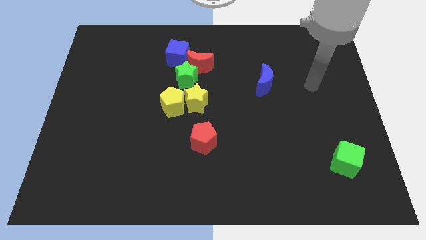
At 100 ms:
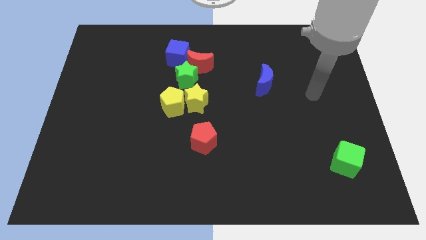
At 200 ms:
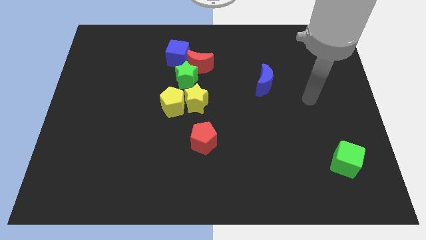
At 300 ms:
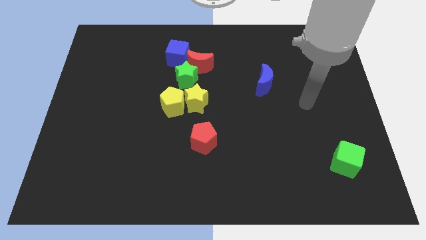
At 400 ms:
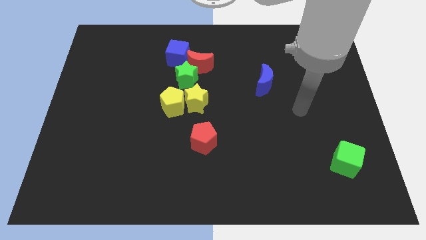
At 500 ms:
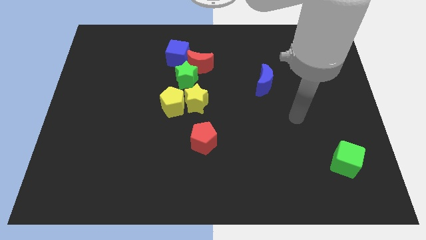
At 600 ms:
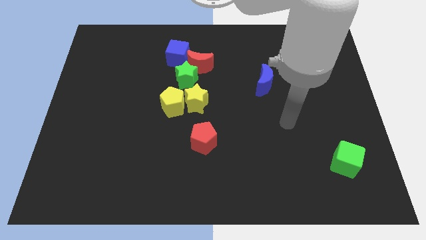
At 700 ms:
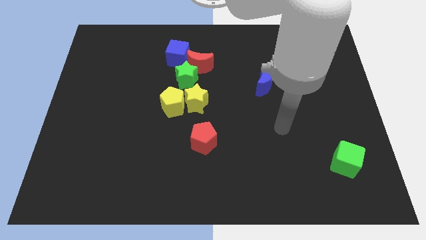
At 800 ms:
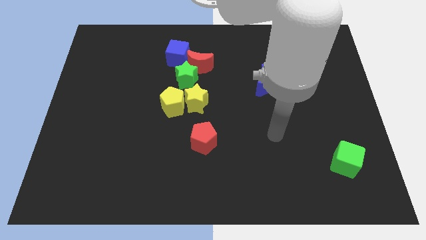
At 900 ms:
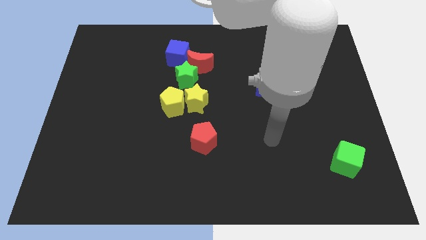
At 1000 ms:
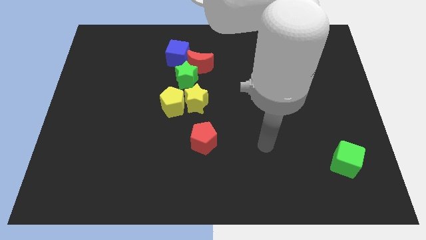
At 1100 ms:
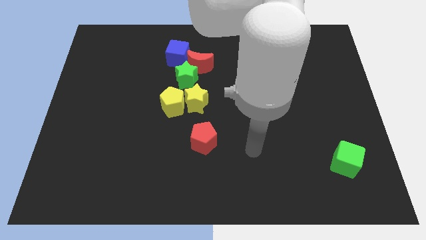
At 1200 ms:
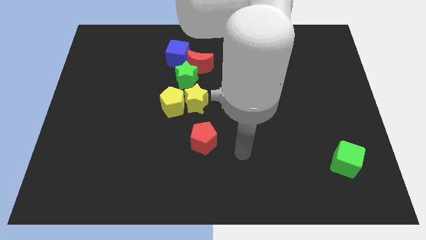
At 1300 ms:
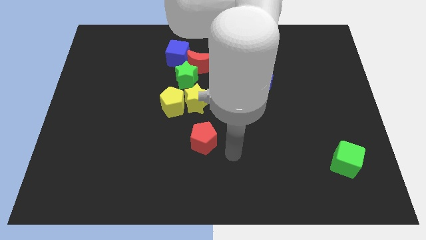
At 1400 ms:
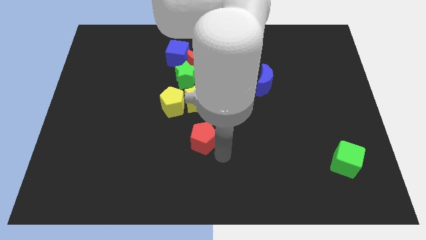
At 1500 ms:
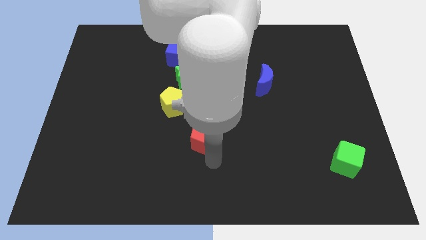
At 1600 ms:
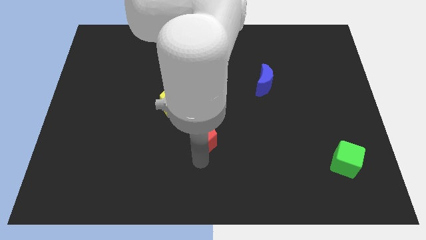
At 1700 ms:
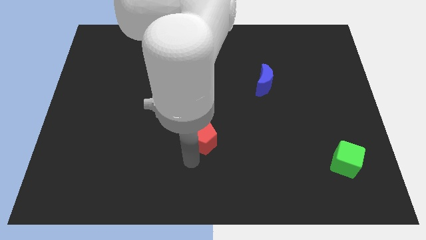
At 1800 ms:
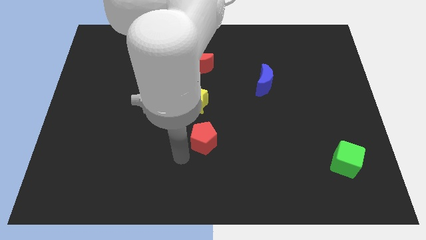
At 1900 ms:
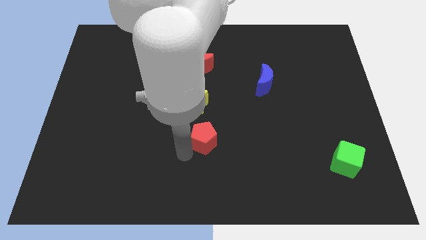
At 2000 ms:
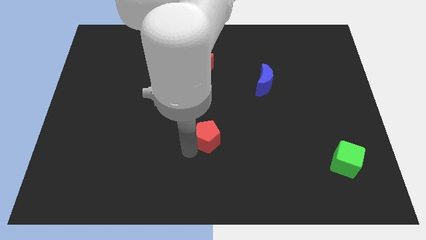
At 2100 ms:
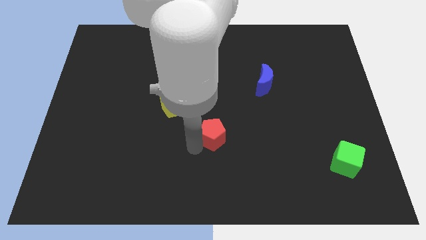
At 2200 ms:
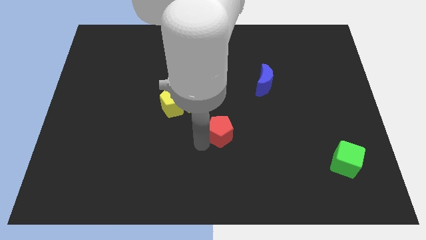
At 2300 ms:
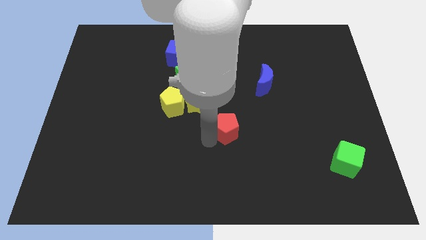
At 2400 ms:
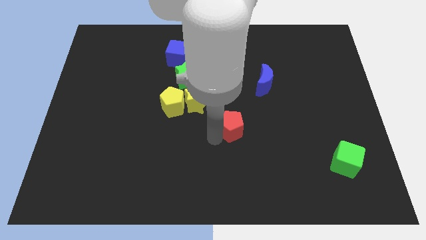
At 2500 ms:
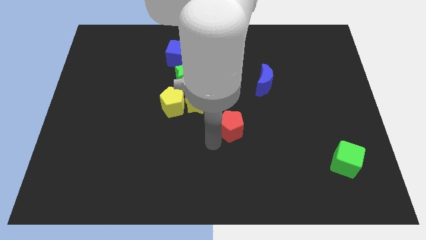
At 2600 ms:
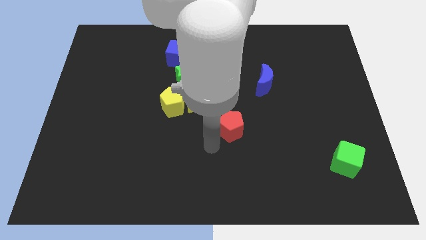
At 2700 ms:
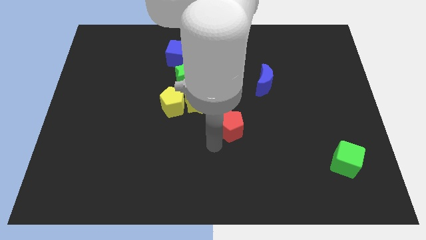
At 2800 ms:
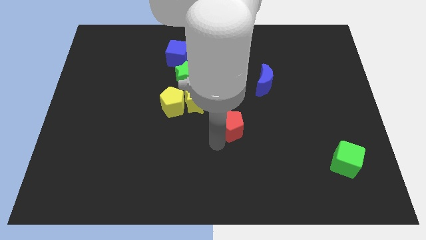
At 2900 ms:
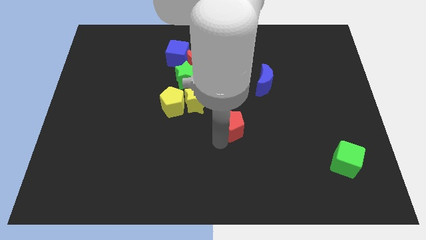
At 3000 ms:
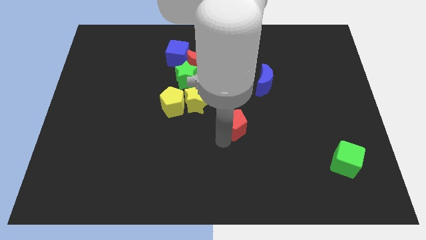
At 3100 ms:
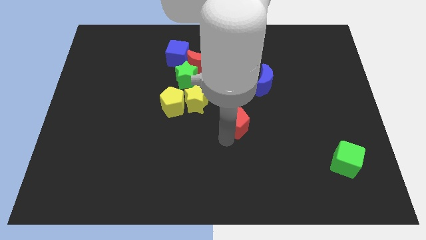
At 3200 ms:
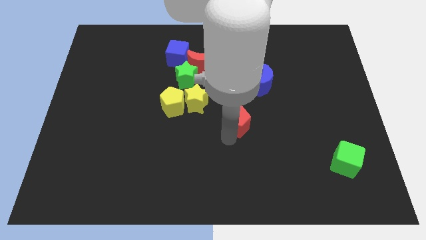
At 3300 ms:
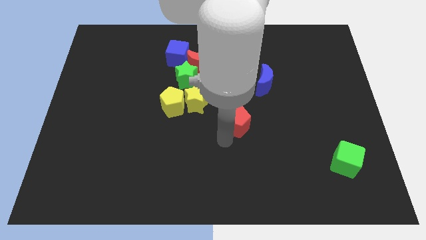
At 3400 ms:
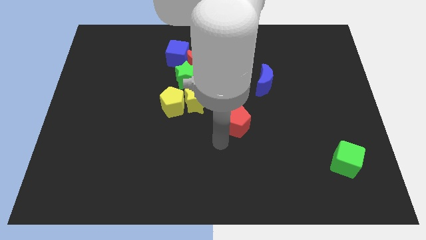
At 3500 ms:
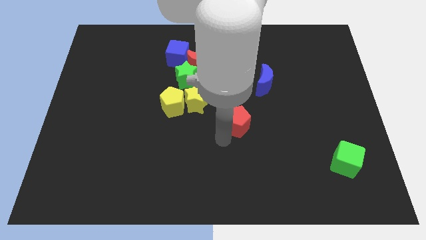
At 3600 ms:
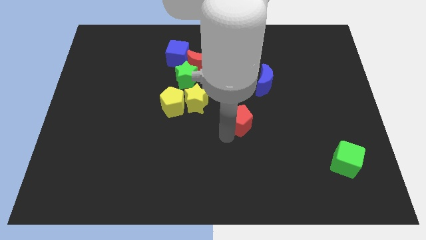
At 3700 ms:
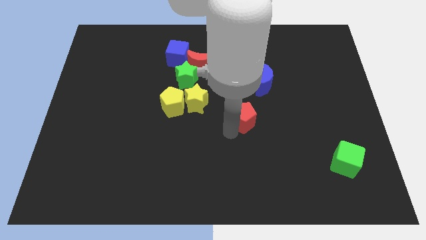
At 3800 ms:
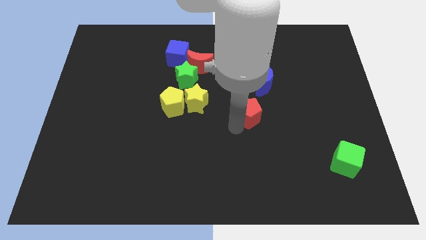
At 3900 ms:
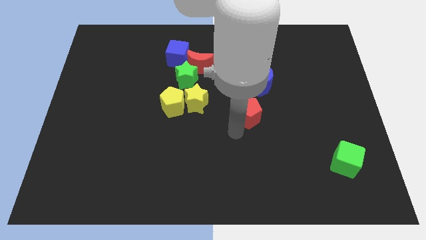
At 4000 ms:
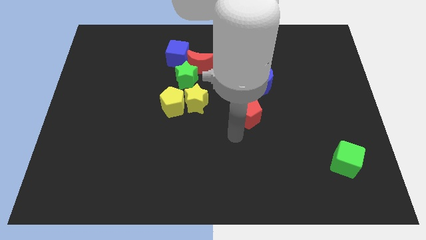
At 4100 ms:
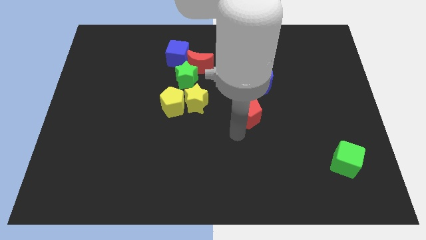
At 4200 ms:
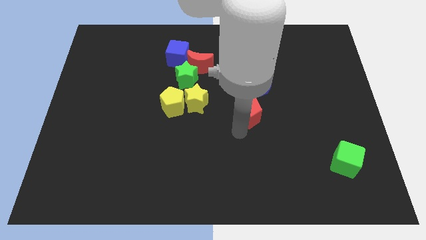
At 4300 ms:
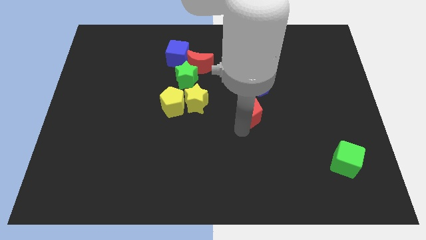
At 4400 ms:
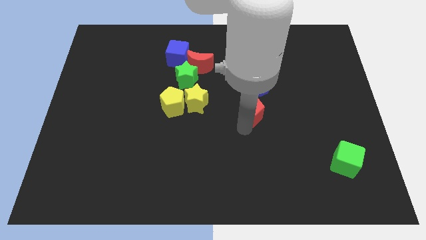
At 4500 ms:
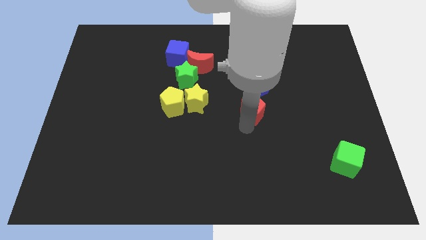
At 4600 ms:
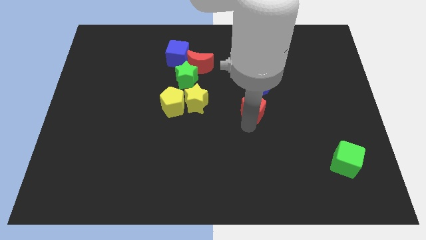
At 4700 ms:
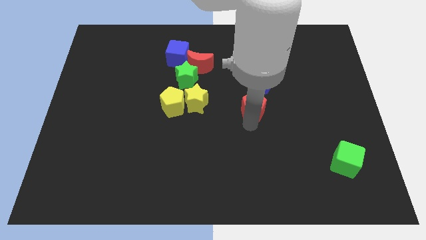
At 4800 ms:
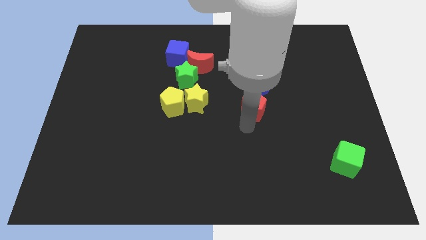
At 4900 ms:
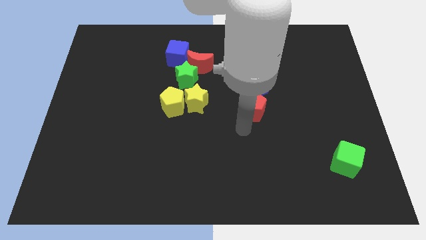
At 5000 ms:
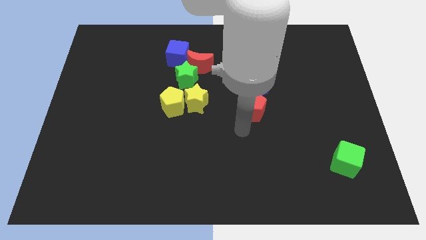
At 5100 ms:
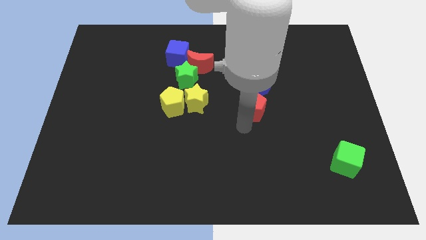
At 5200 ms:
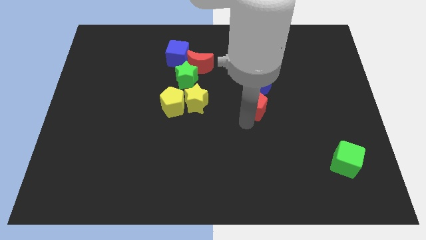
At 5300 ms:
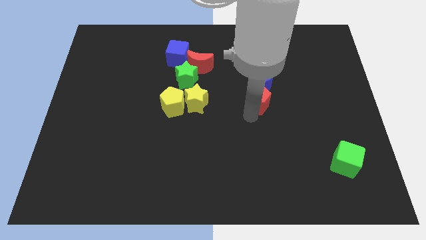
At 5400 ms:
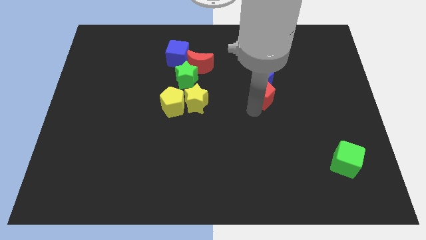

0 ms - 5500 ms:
put the red pentagon to the blue moon

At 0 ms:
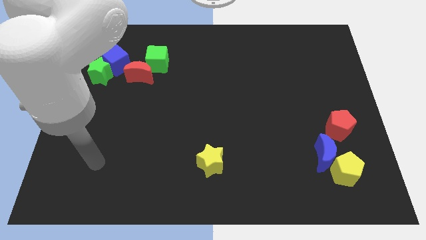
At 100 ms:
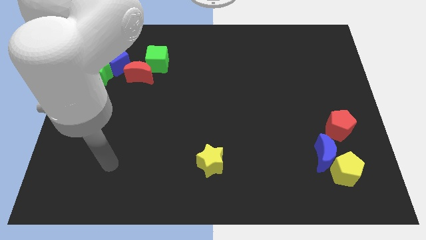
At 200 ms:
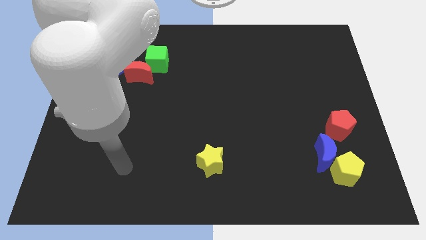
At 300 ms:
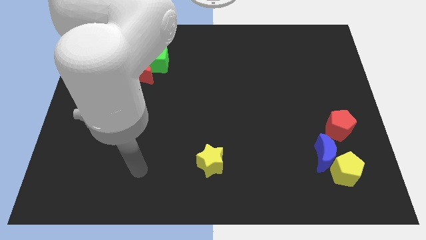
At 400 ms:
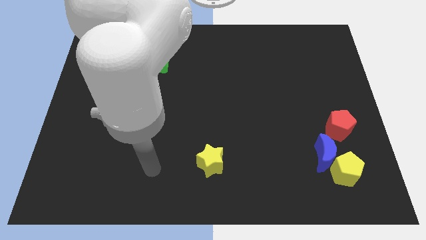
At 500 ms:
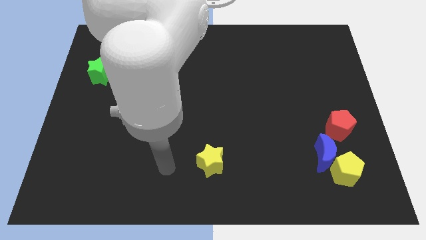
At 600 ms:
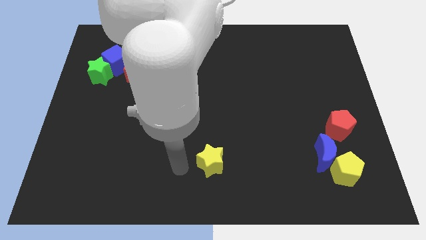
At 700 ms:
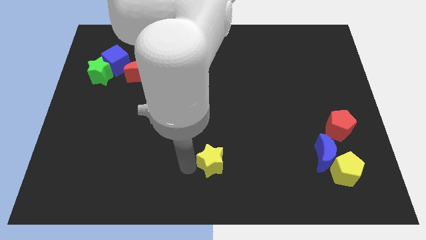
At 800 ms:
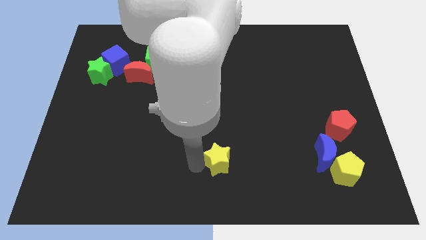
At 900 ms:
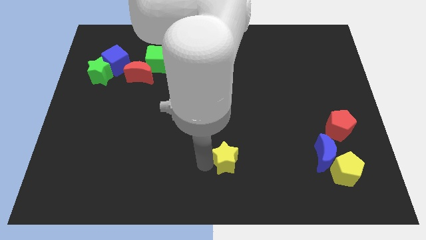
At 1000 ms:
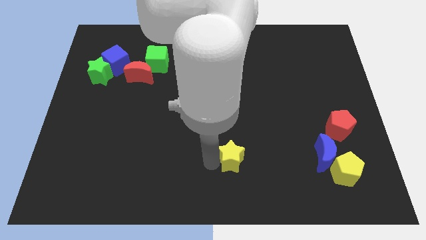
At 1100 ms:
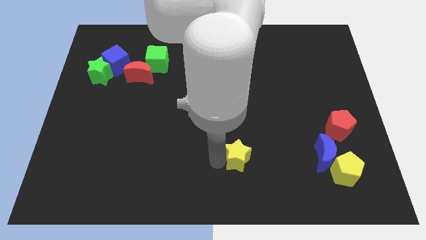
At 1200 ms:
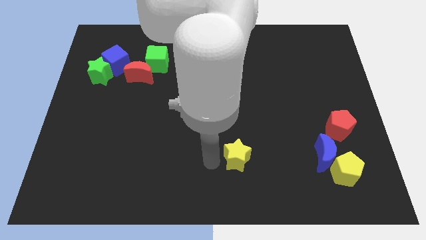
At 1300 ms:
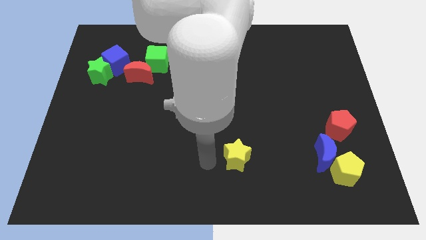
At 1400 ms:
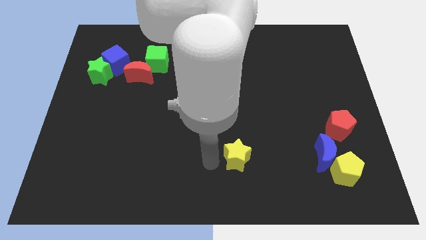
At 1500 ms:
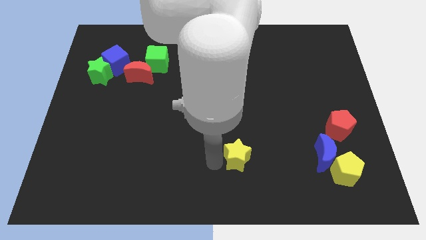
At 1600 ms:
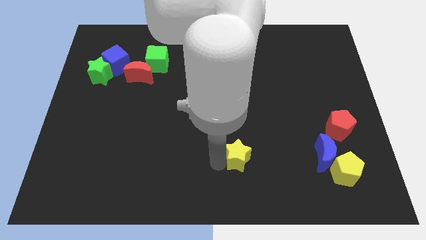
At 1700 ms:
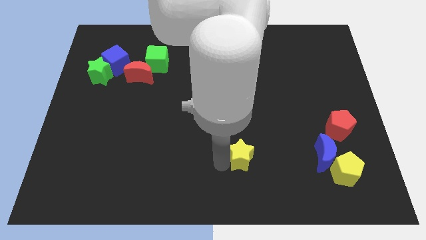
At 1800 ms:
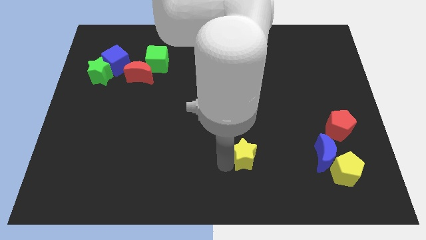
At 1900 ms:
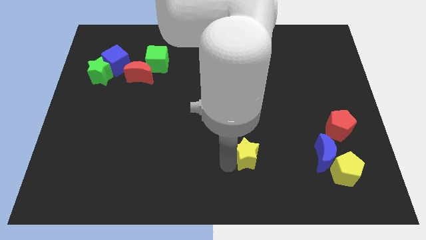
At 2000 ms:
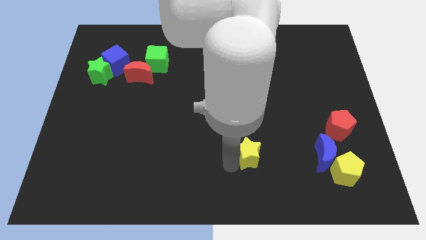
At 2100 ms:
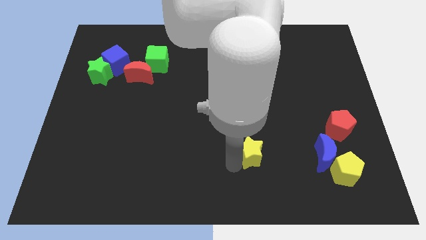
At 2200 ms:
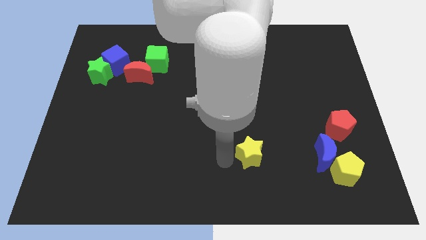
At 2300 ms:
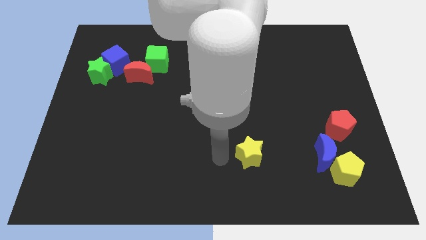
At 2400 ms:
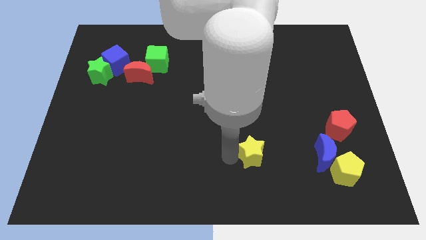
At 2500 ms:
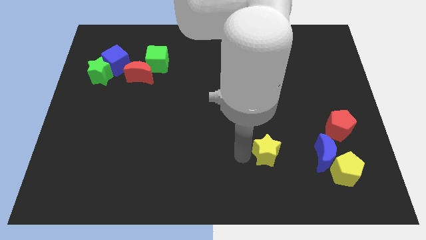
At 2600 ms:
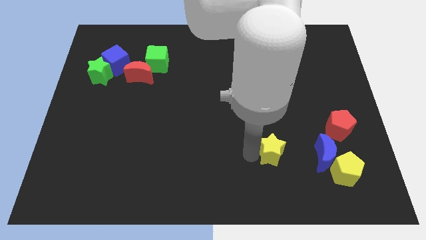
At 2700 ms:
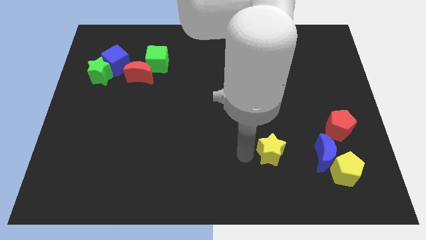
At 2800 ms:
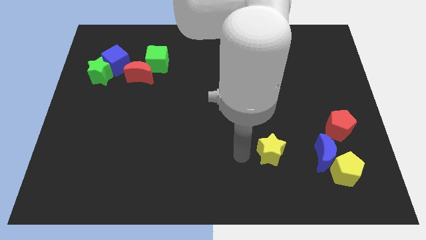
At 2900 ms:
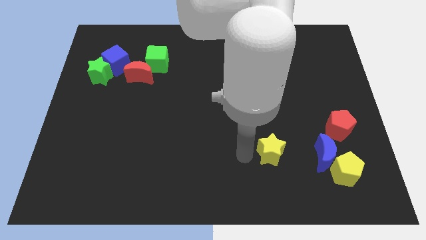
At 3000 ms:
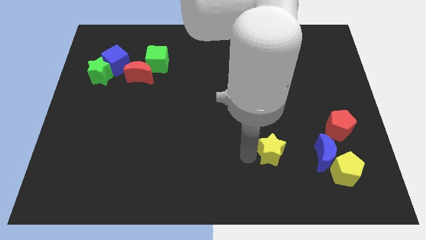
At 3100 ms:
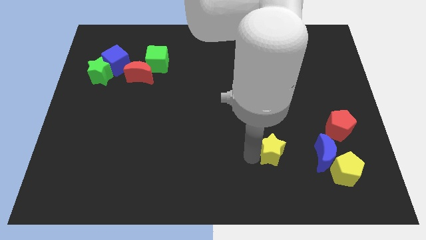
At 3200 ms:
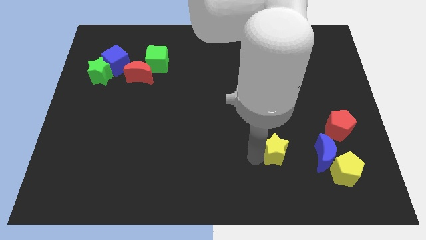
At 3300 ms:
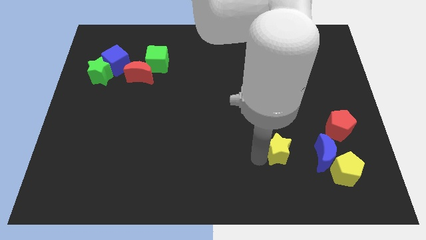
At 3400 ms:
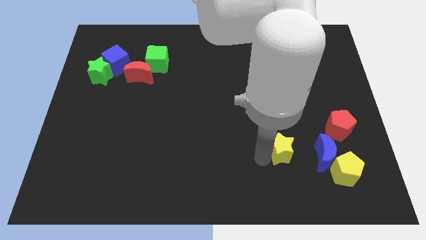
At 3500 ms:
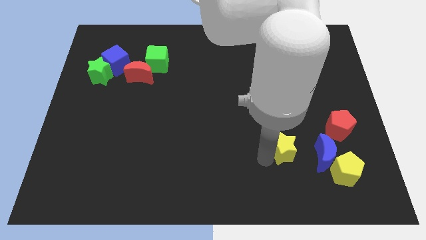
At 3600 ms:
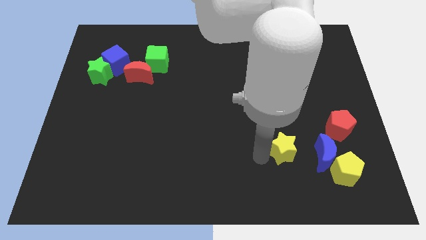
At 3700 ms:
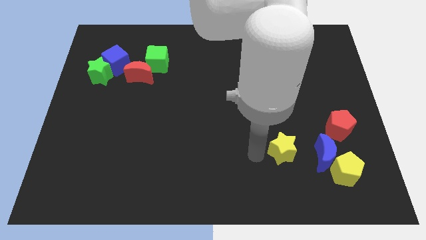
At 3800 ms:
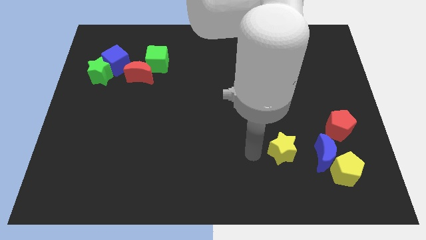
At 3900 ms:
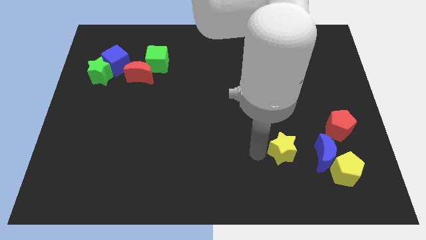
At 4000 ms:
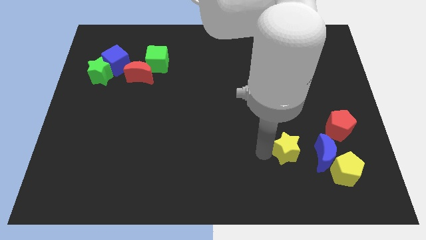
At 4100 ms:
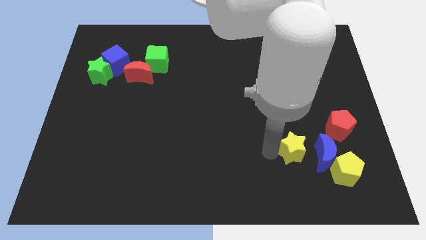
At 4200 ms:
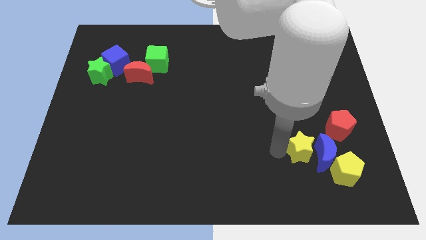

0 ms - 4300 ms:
push the yellow star to the blue moon
